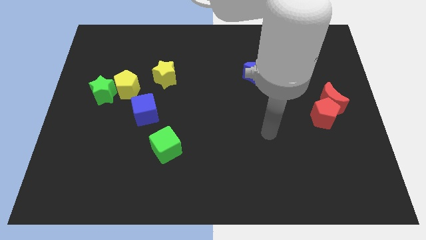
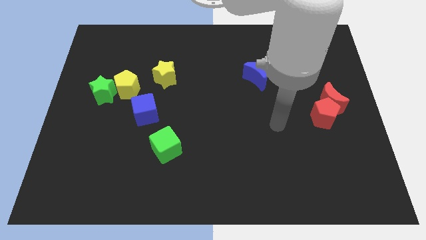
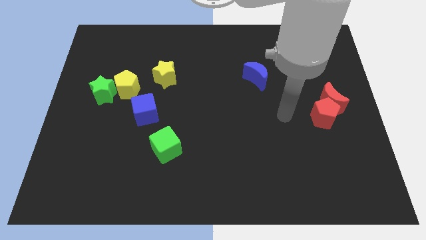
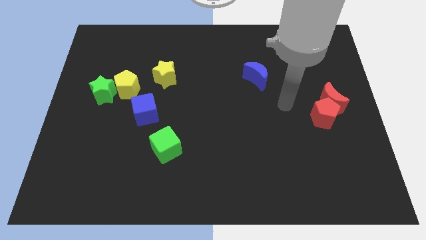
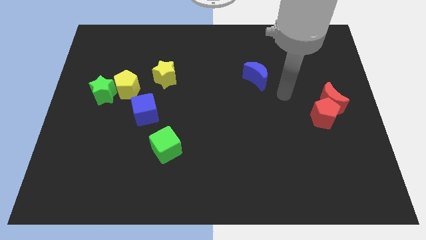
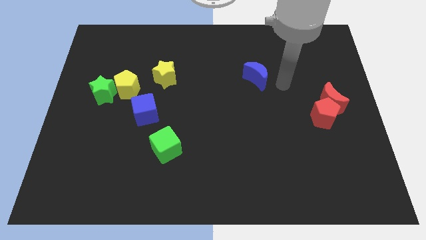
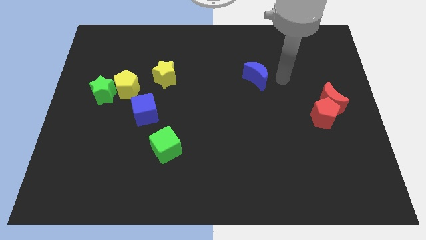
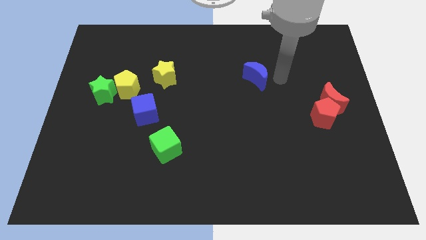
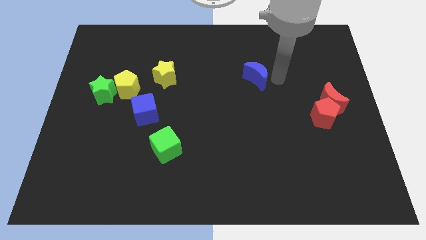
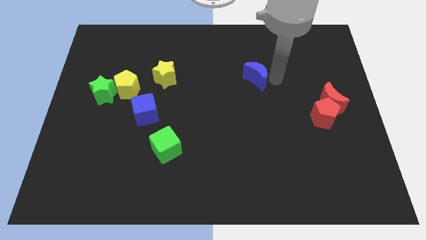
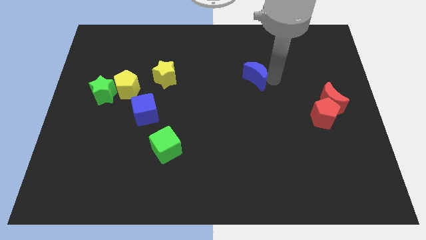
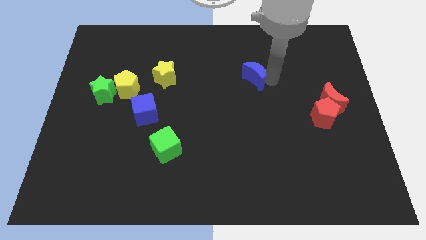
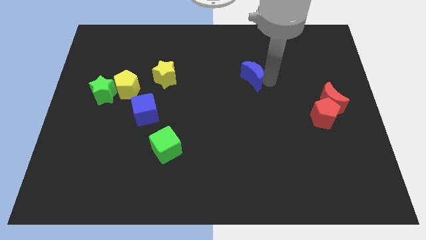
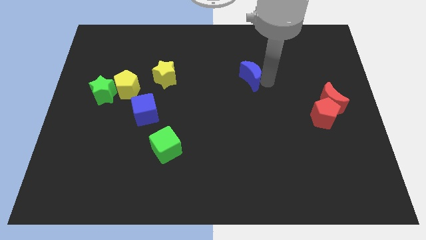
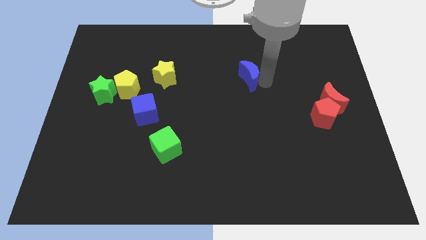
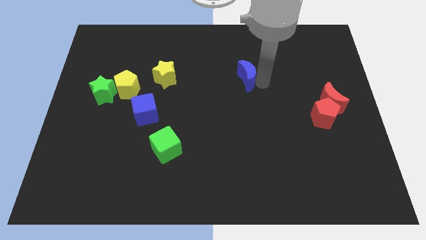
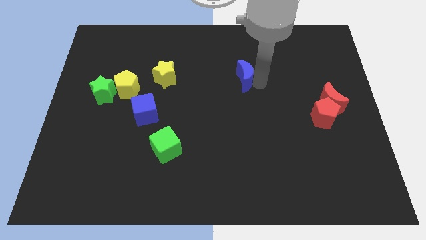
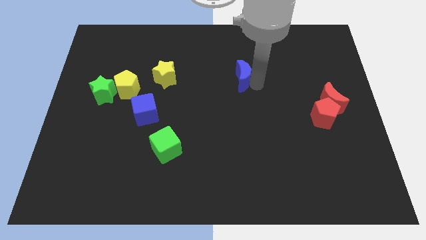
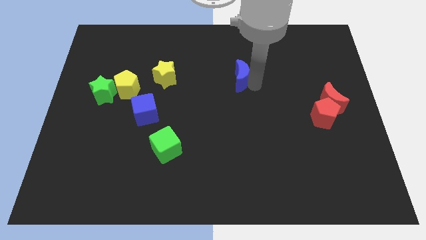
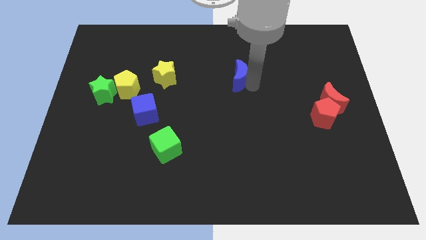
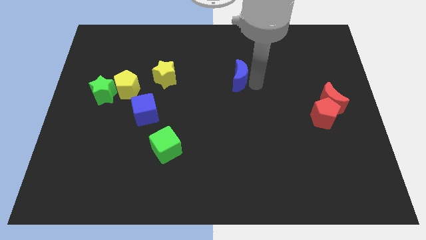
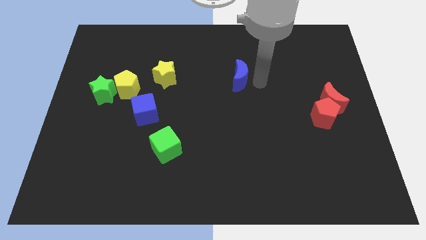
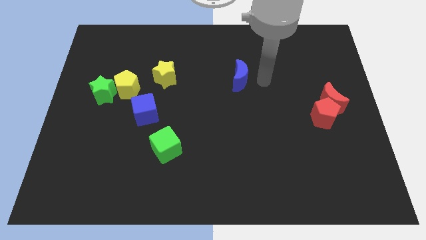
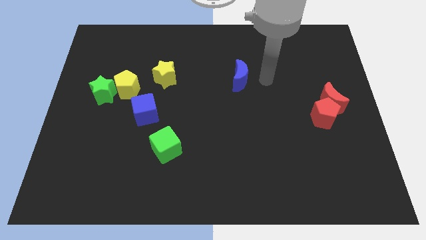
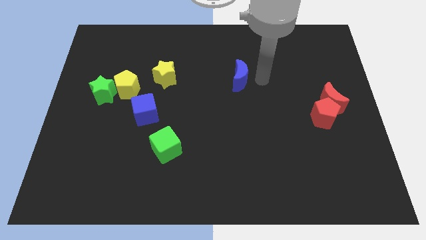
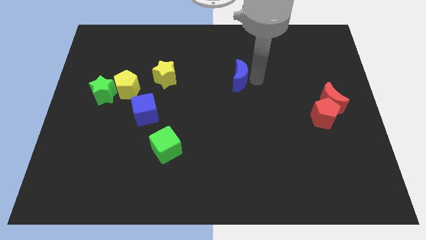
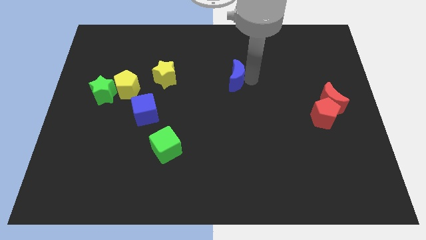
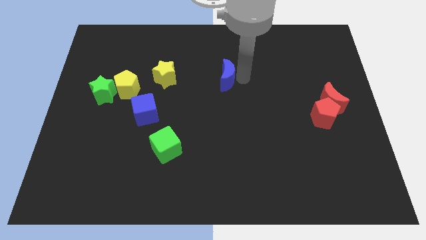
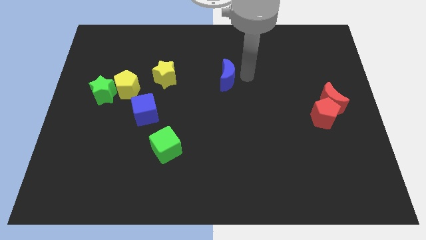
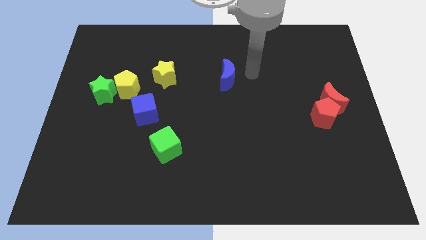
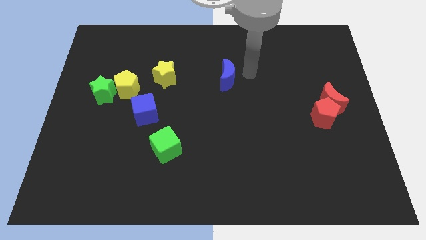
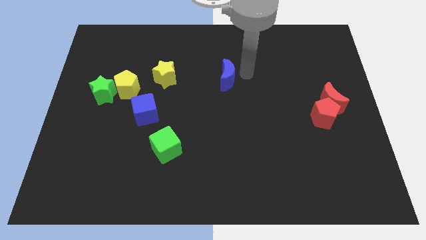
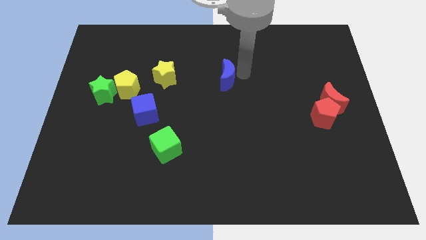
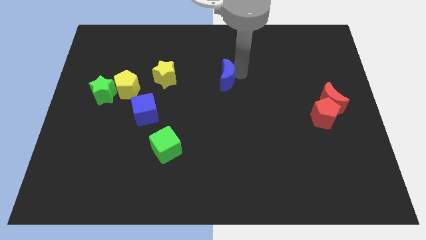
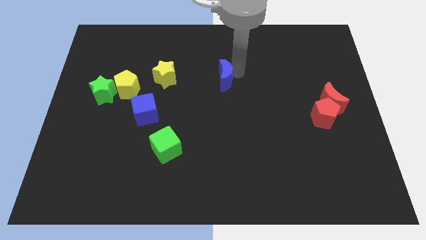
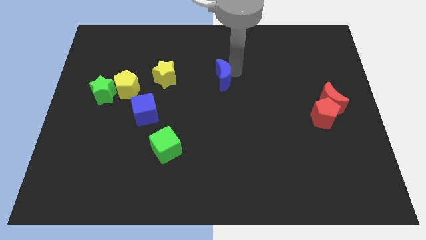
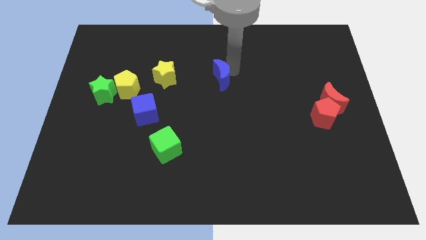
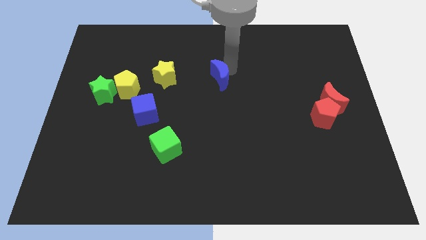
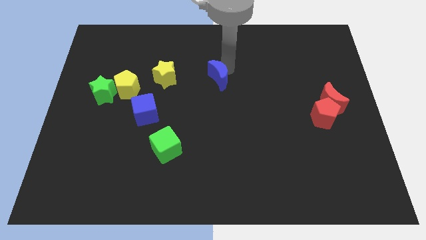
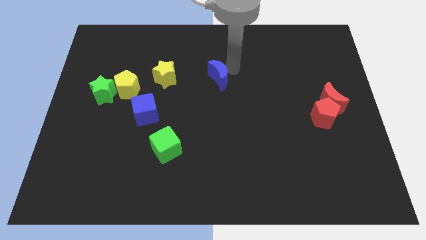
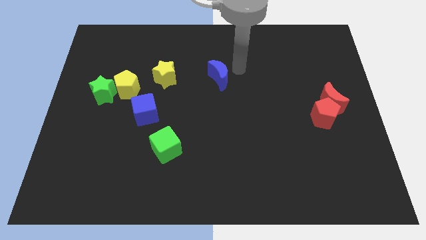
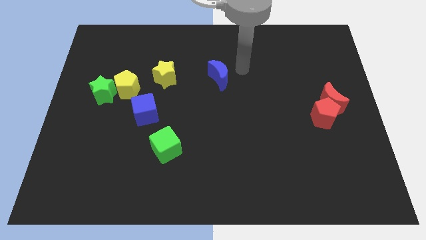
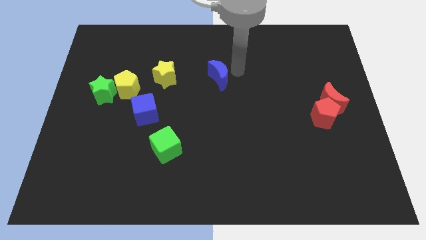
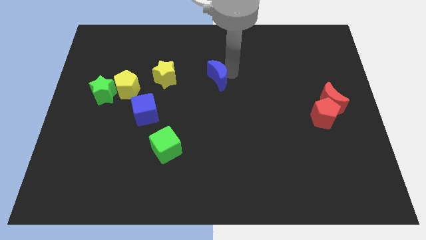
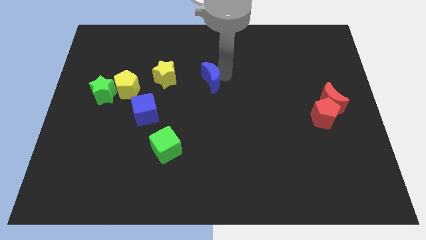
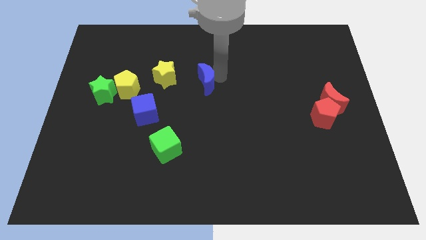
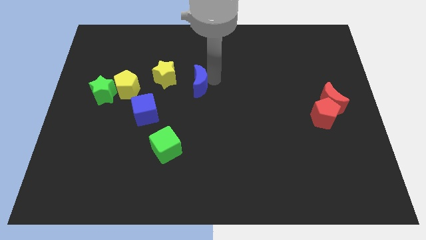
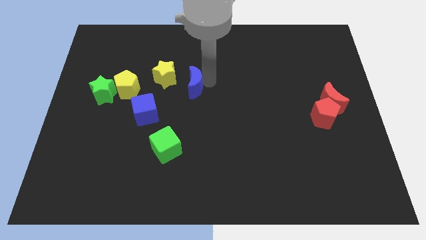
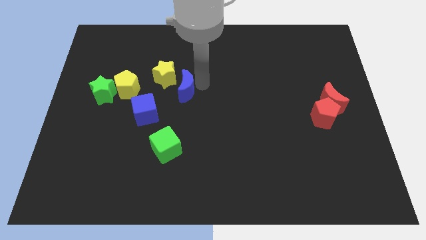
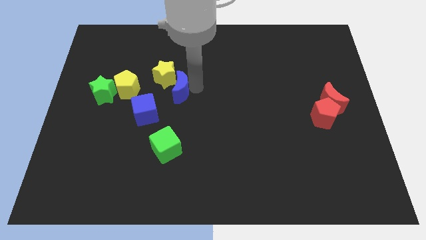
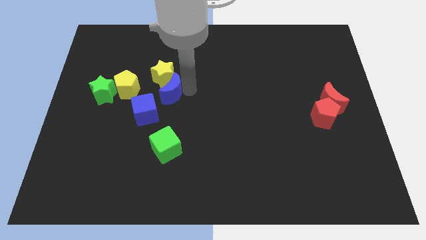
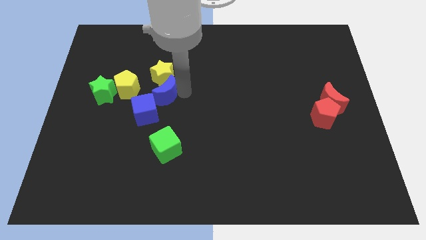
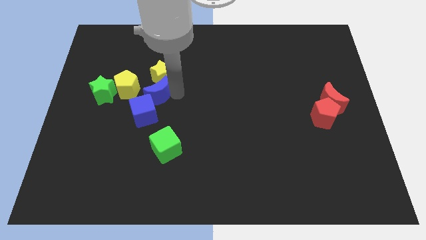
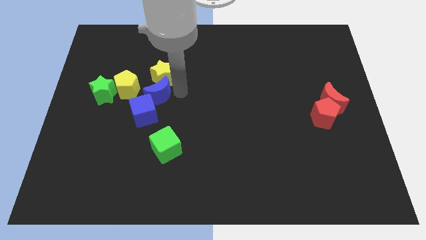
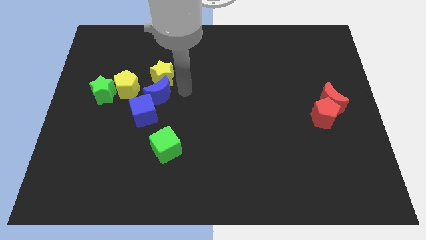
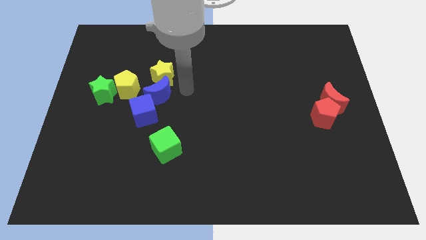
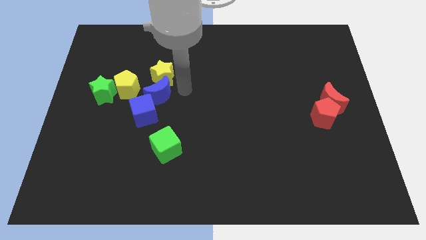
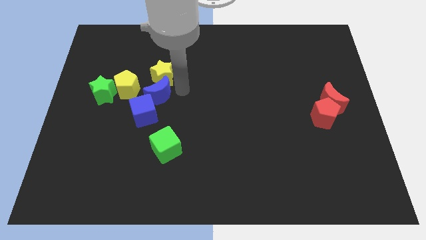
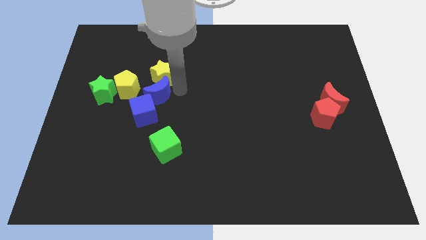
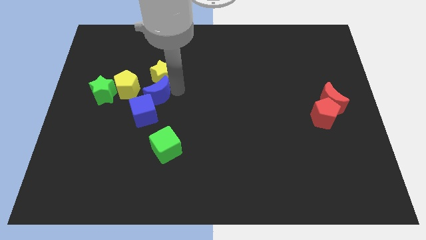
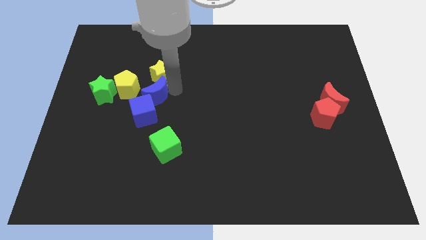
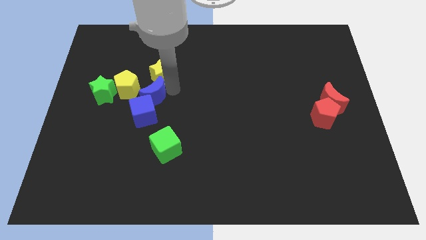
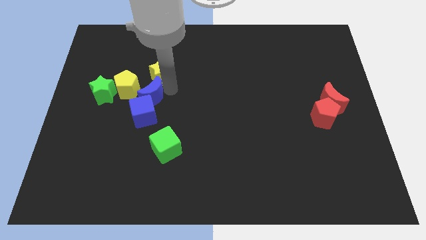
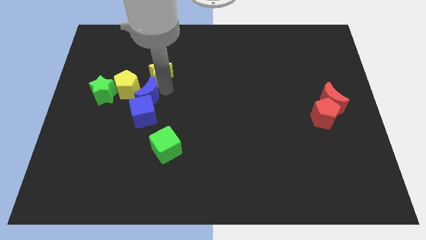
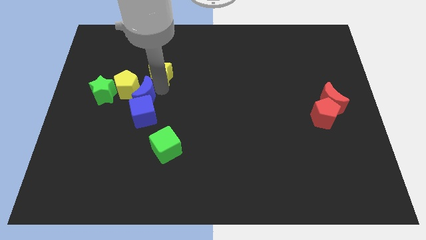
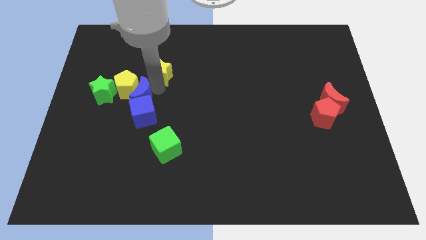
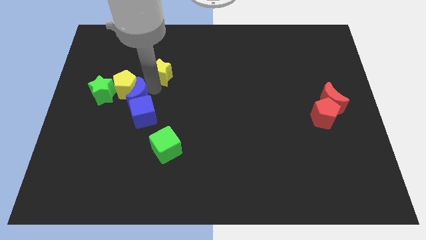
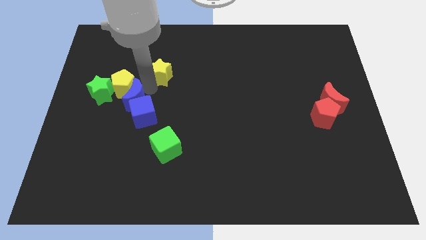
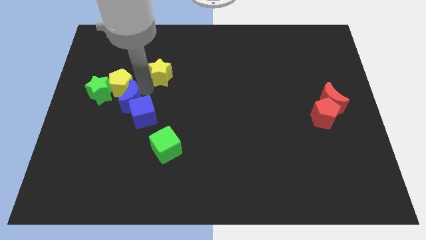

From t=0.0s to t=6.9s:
put the blue moon just left of the blue cube
